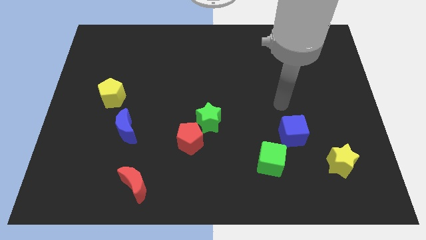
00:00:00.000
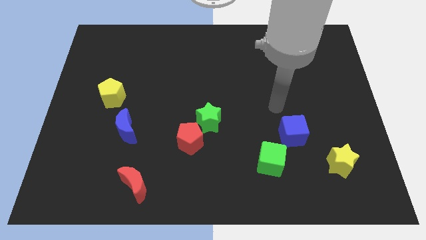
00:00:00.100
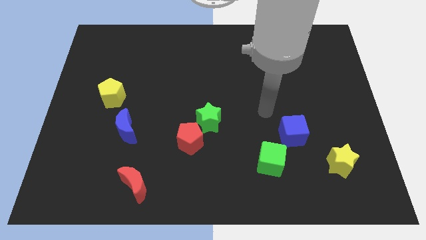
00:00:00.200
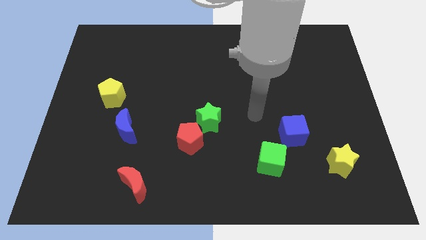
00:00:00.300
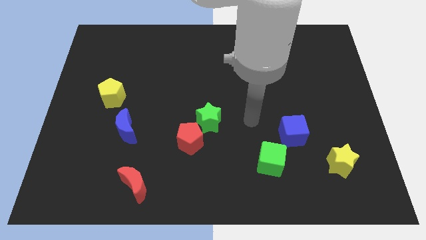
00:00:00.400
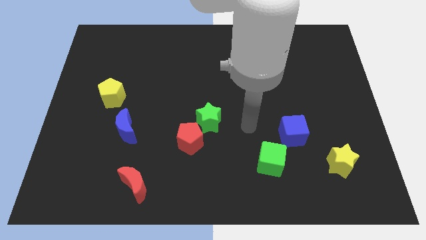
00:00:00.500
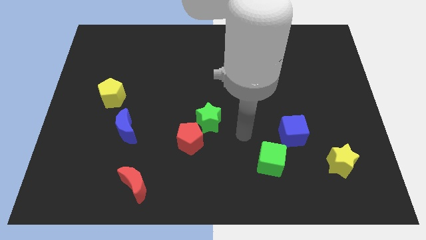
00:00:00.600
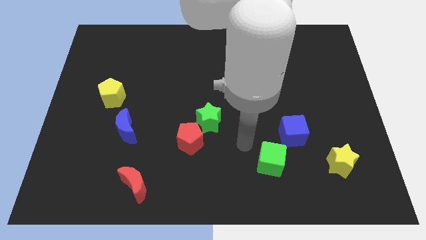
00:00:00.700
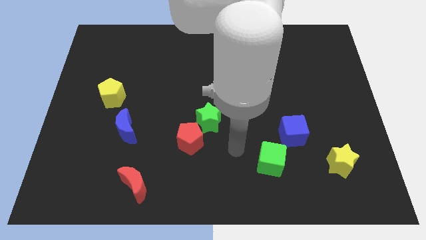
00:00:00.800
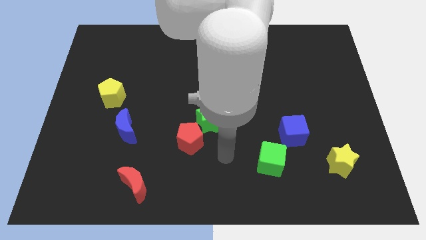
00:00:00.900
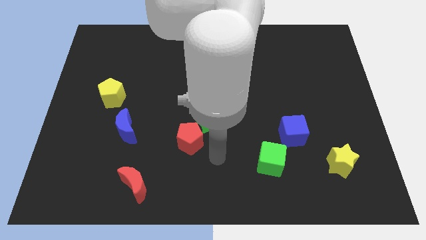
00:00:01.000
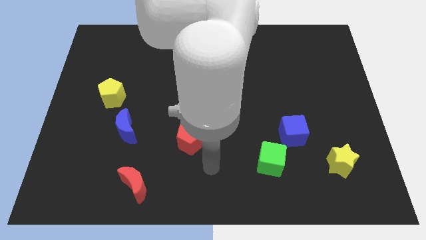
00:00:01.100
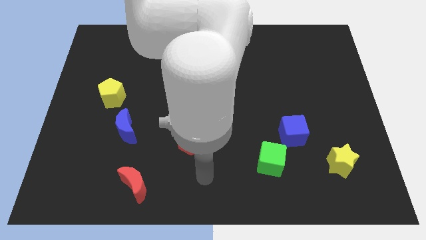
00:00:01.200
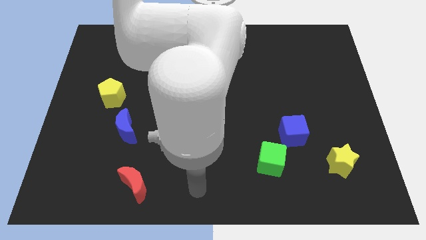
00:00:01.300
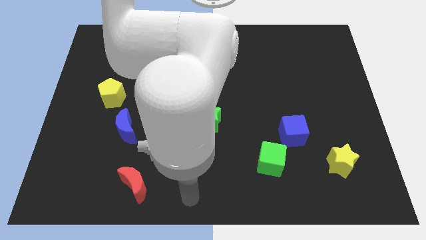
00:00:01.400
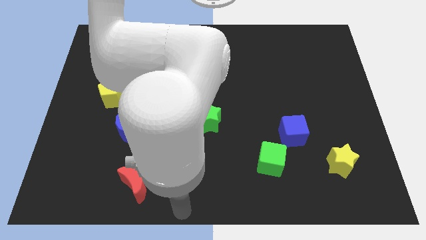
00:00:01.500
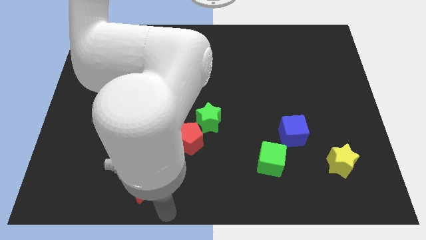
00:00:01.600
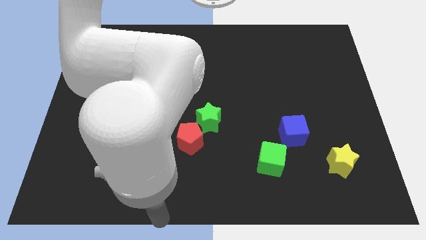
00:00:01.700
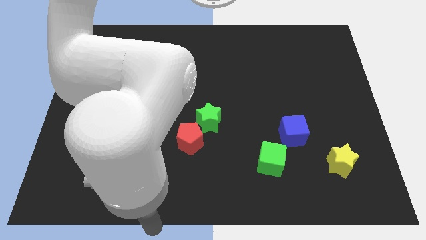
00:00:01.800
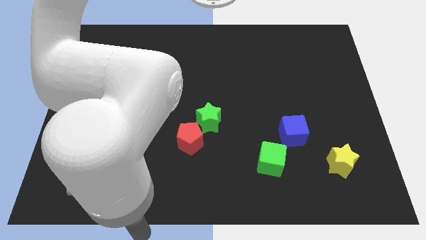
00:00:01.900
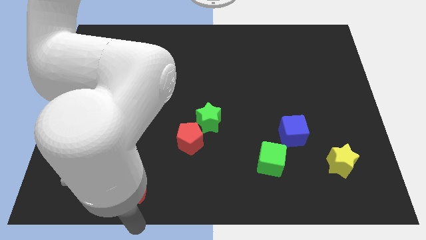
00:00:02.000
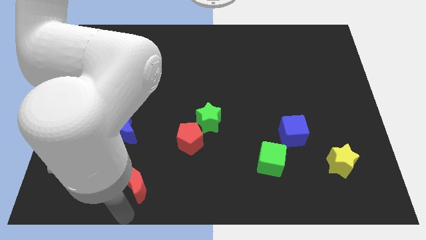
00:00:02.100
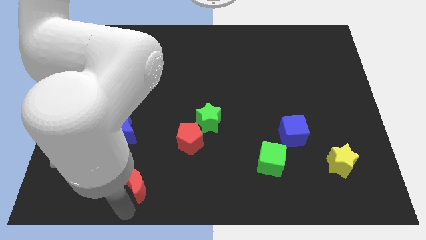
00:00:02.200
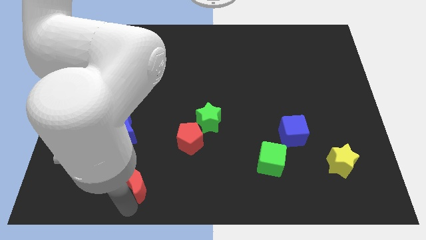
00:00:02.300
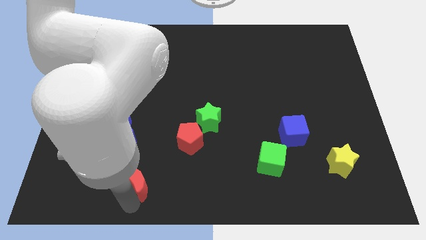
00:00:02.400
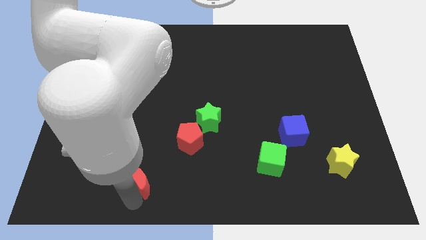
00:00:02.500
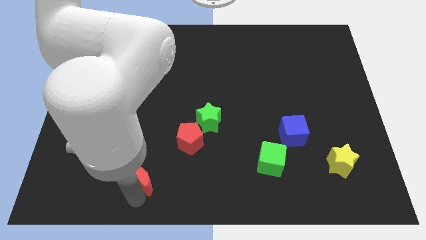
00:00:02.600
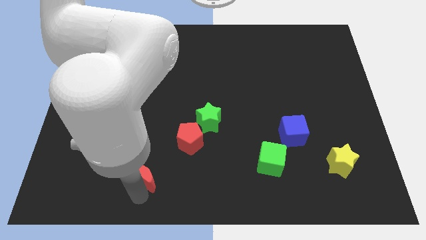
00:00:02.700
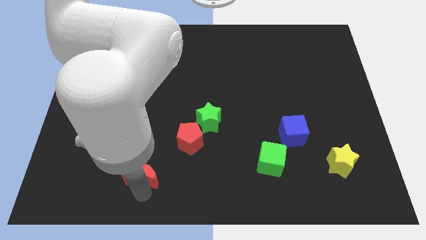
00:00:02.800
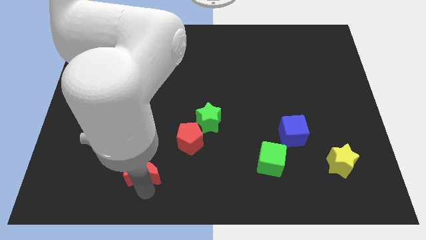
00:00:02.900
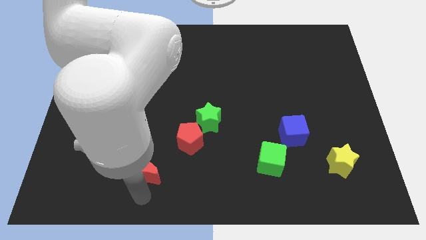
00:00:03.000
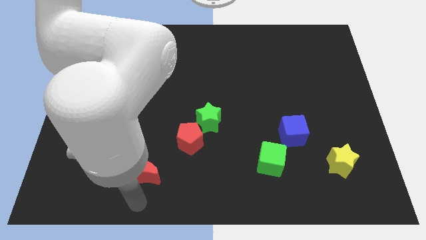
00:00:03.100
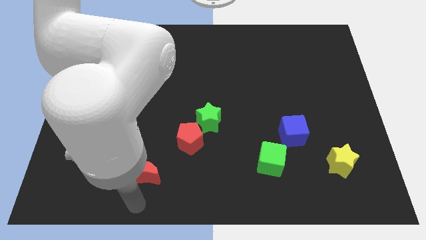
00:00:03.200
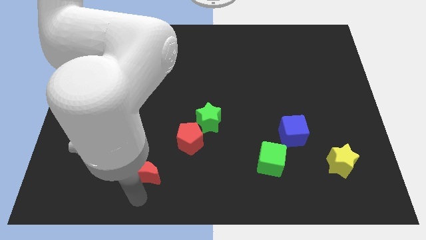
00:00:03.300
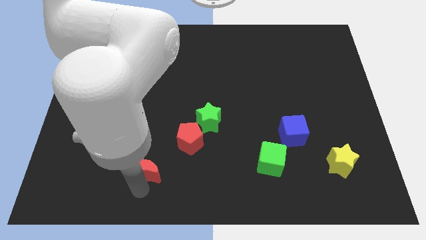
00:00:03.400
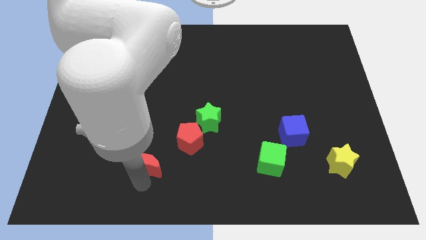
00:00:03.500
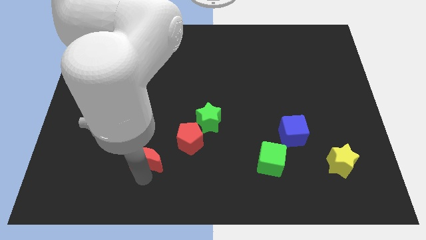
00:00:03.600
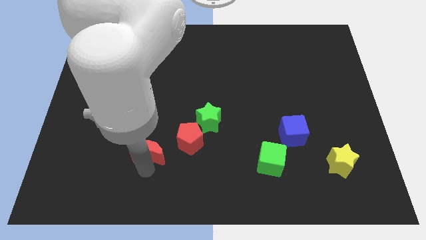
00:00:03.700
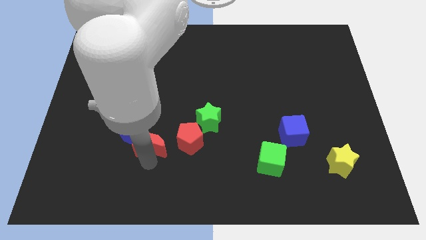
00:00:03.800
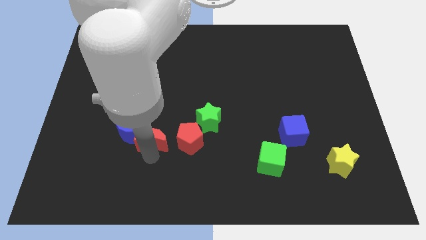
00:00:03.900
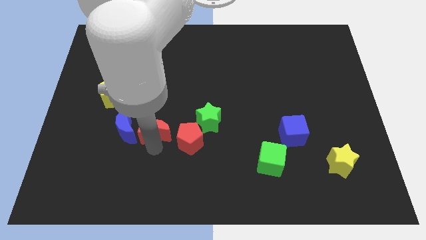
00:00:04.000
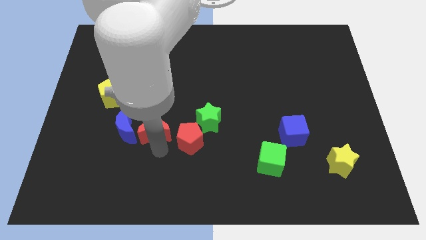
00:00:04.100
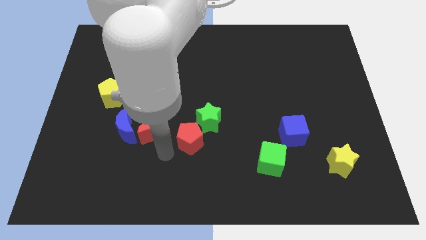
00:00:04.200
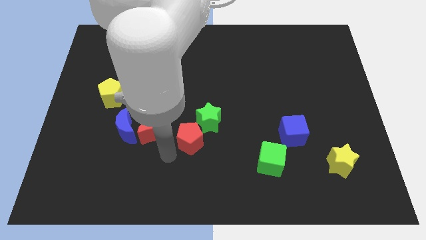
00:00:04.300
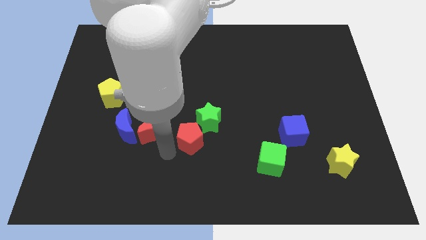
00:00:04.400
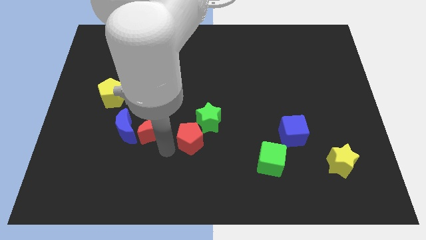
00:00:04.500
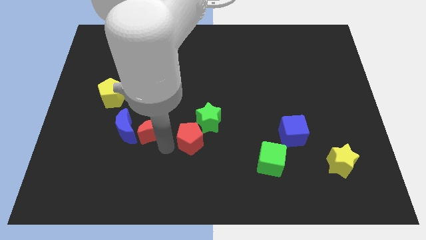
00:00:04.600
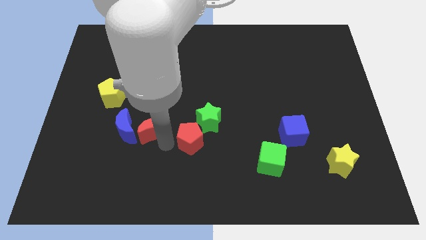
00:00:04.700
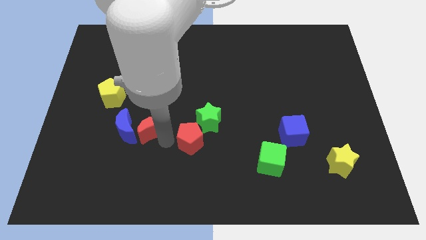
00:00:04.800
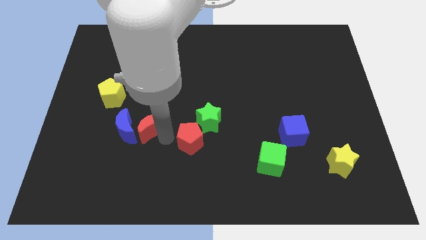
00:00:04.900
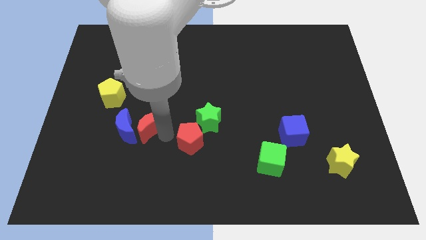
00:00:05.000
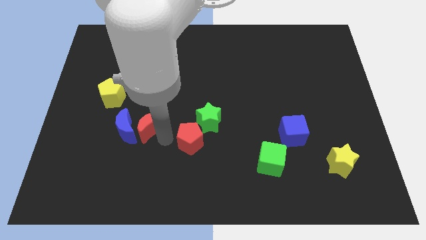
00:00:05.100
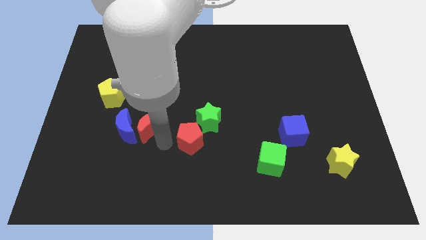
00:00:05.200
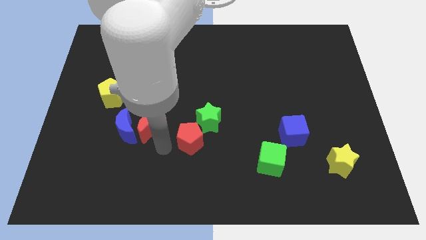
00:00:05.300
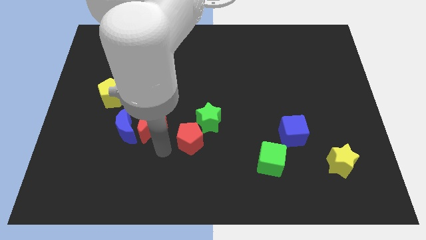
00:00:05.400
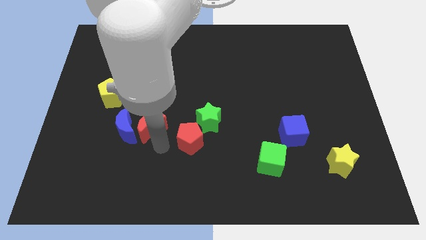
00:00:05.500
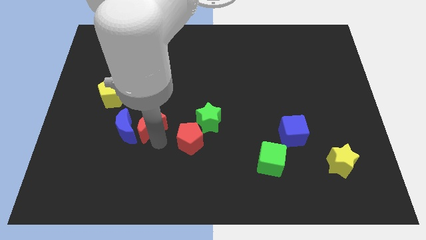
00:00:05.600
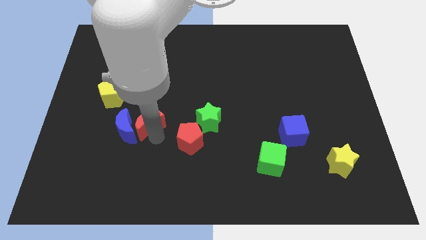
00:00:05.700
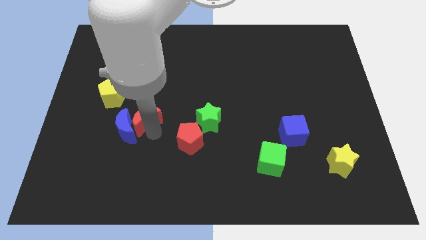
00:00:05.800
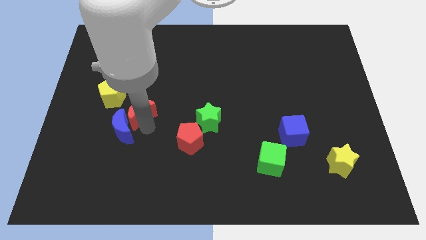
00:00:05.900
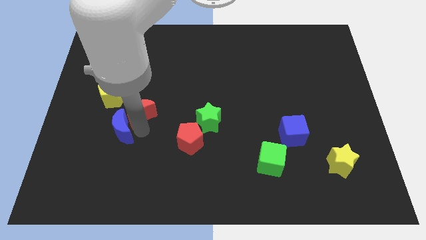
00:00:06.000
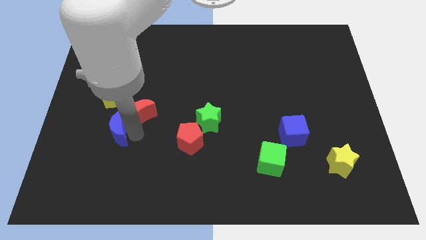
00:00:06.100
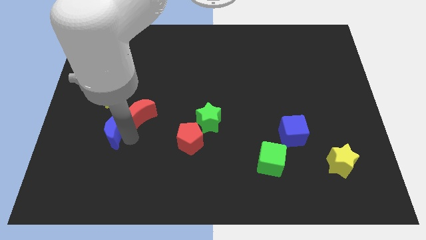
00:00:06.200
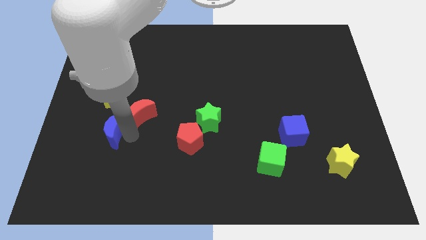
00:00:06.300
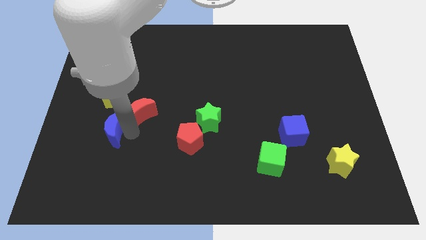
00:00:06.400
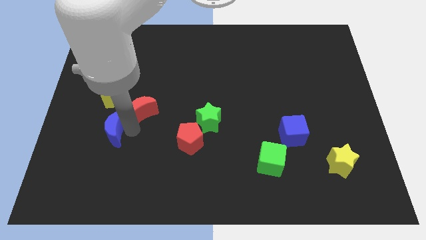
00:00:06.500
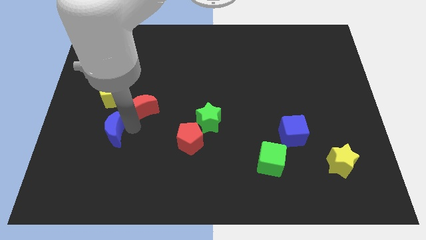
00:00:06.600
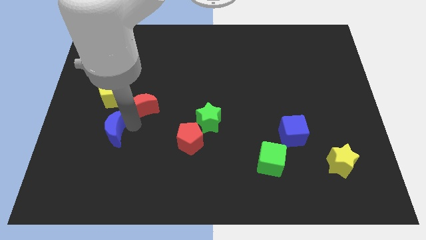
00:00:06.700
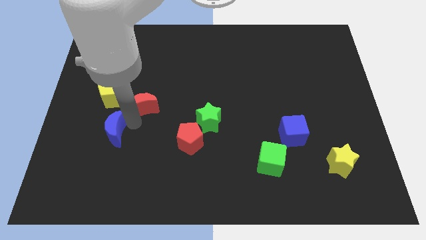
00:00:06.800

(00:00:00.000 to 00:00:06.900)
move the red moon upwards

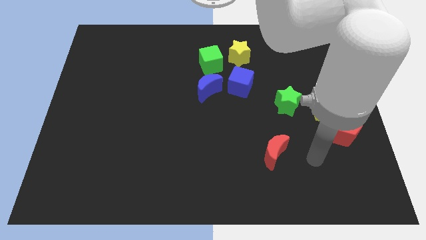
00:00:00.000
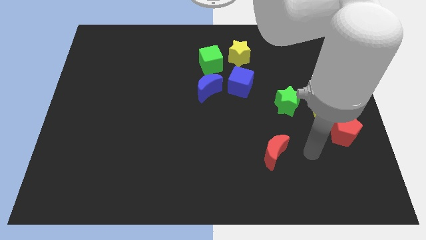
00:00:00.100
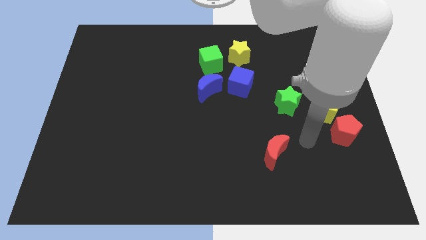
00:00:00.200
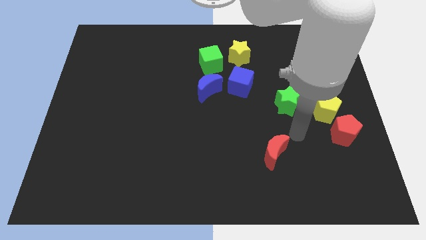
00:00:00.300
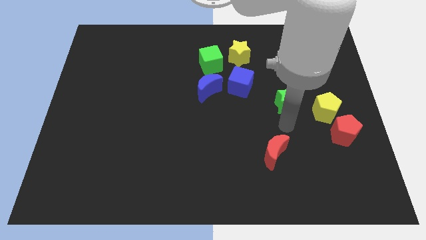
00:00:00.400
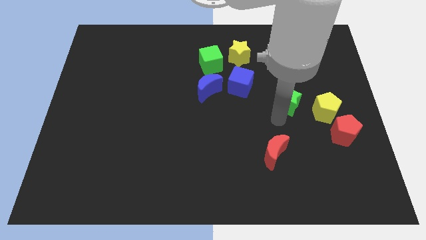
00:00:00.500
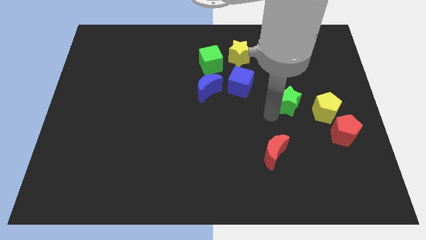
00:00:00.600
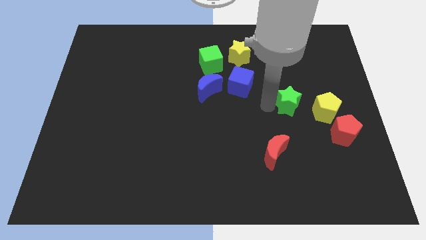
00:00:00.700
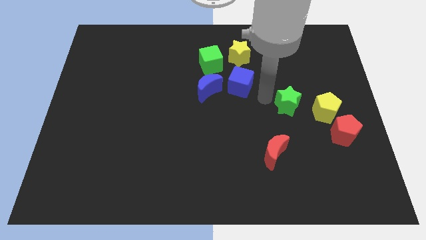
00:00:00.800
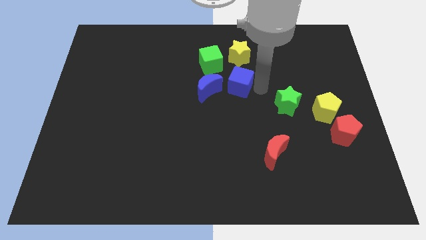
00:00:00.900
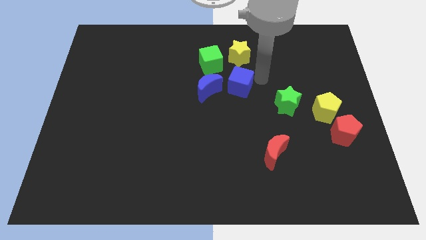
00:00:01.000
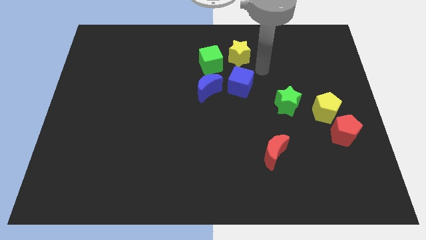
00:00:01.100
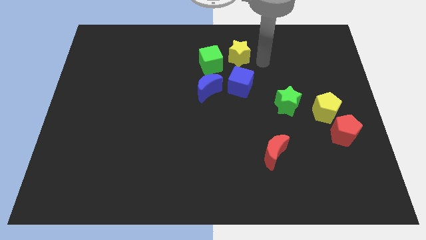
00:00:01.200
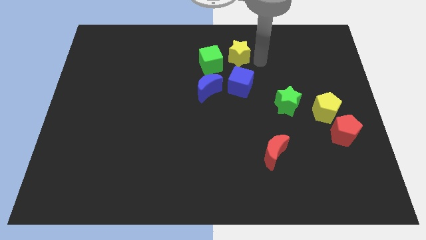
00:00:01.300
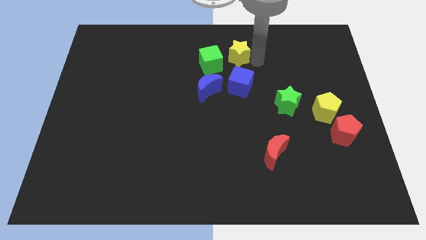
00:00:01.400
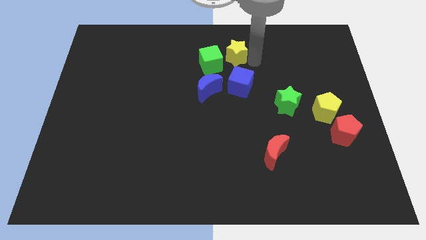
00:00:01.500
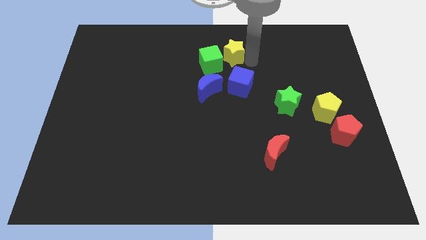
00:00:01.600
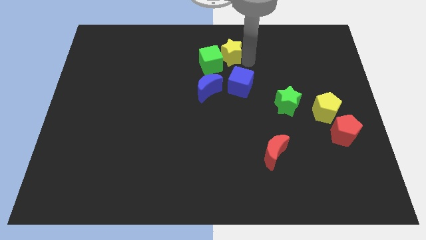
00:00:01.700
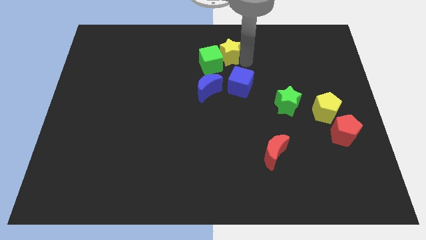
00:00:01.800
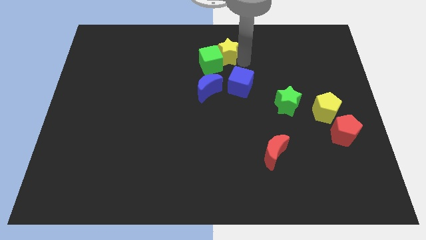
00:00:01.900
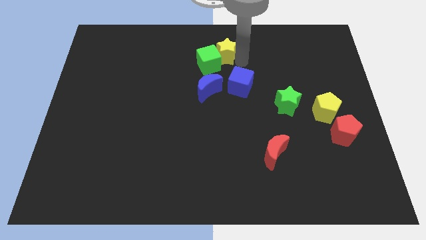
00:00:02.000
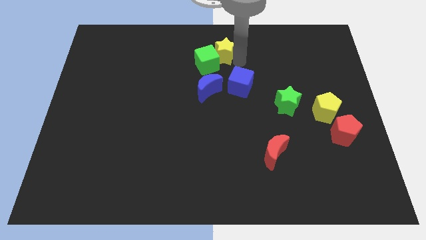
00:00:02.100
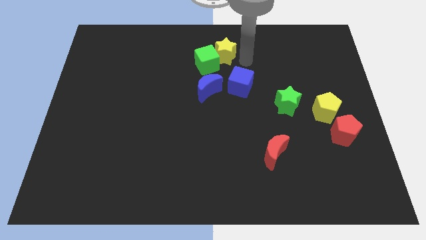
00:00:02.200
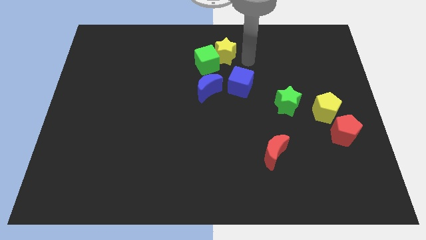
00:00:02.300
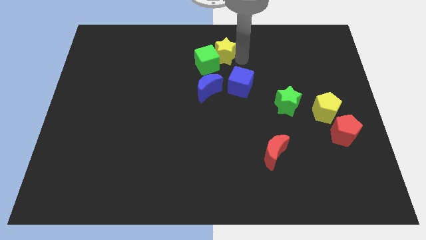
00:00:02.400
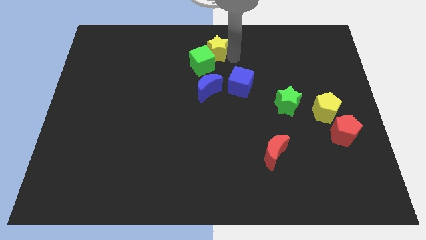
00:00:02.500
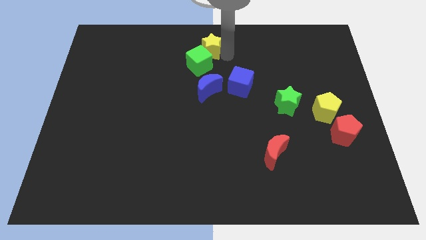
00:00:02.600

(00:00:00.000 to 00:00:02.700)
move the yellow star a bit left
